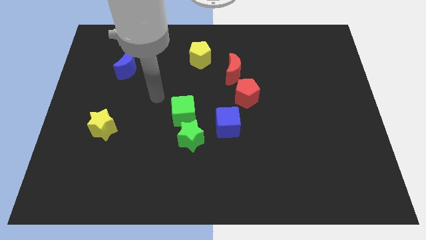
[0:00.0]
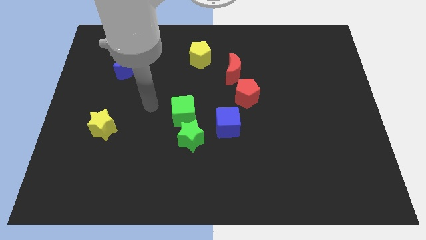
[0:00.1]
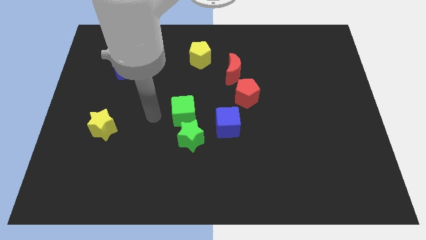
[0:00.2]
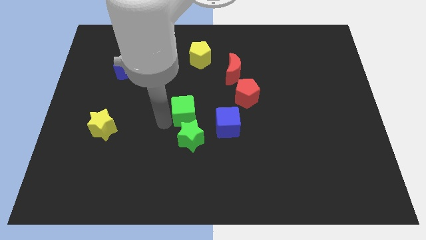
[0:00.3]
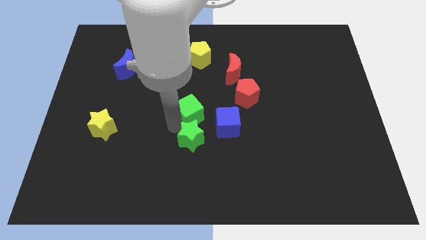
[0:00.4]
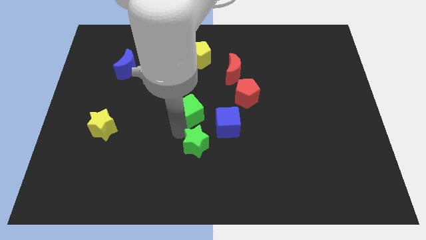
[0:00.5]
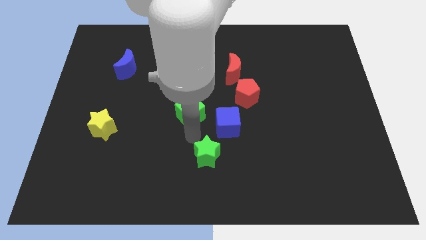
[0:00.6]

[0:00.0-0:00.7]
pull the green cube apart from the green star

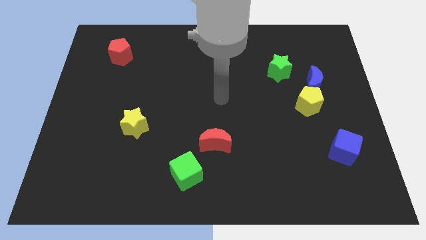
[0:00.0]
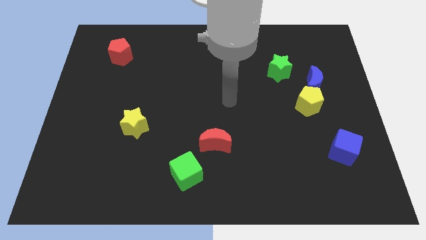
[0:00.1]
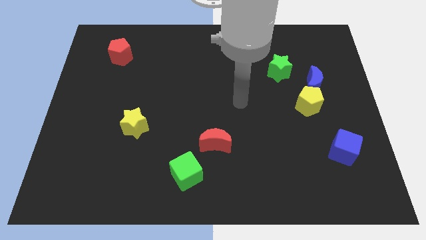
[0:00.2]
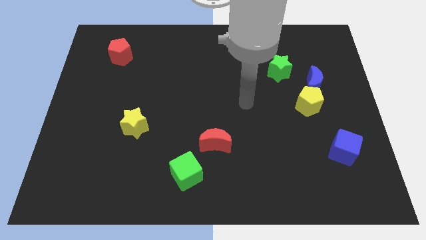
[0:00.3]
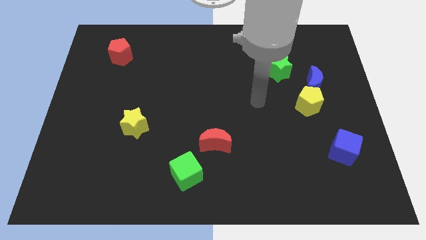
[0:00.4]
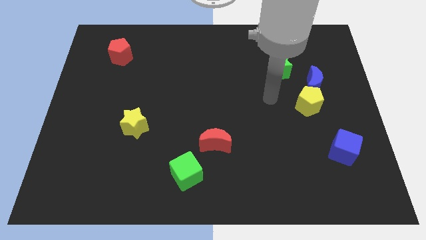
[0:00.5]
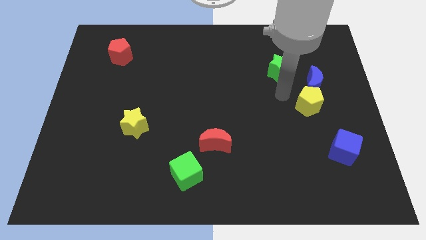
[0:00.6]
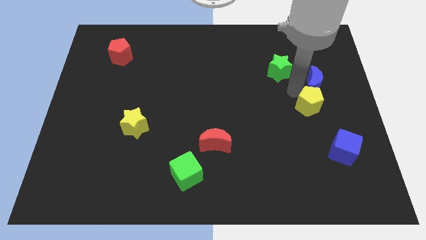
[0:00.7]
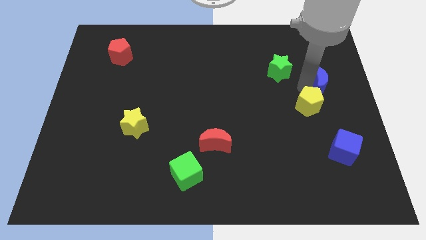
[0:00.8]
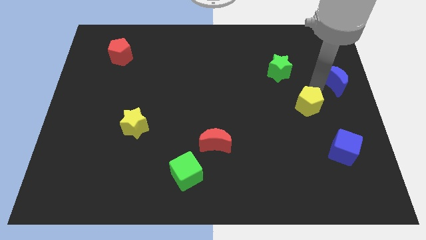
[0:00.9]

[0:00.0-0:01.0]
pull the yellow pentagon apart from the blue moon

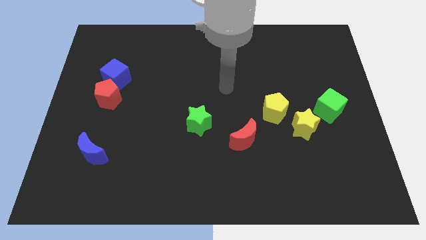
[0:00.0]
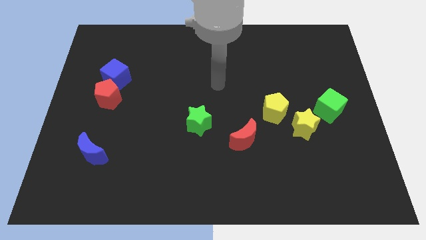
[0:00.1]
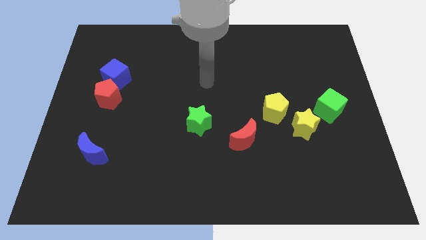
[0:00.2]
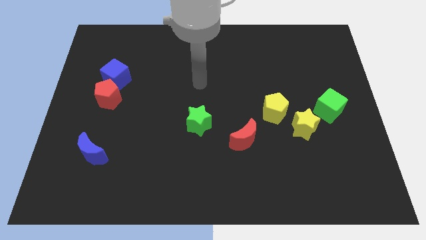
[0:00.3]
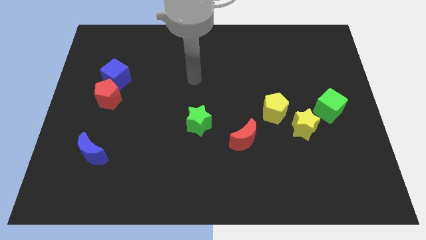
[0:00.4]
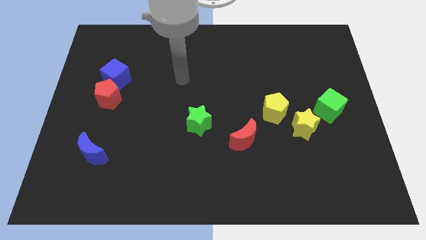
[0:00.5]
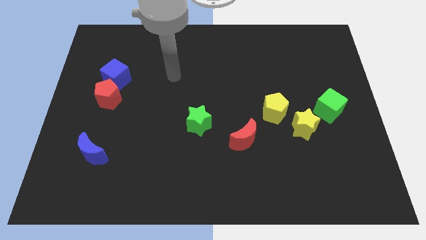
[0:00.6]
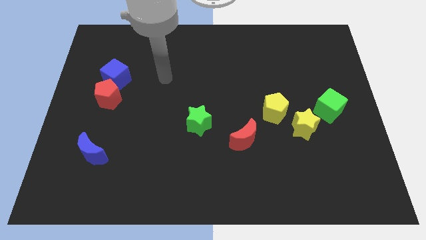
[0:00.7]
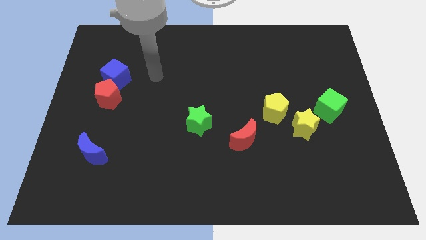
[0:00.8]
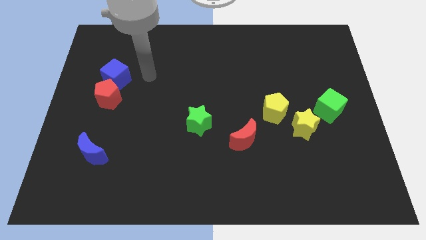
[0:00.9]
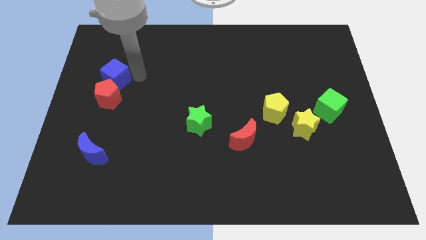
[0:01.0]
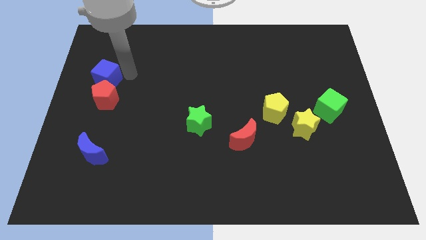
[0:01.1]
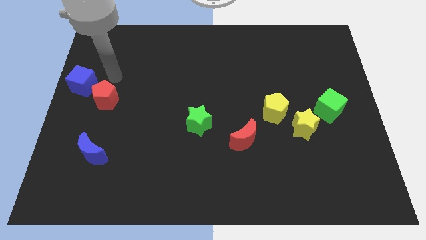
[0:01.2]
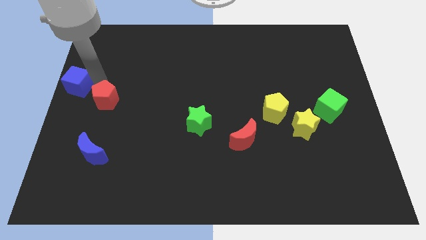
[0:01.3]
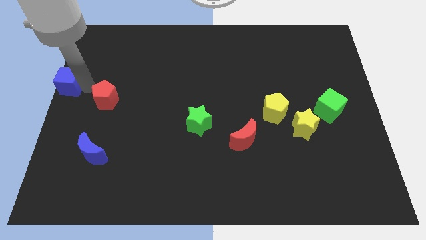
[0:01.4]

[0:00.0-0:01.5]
pull the red pentagon apart from the blue cube

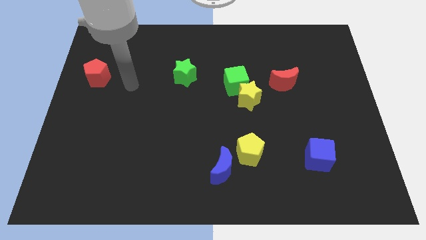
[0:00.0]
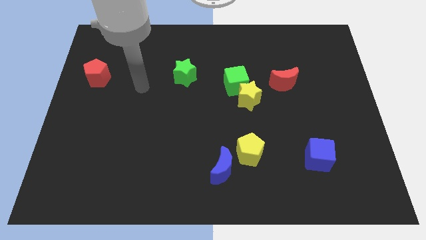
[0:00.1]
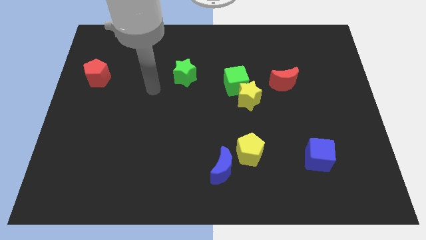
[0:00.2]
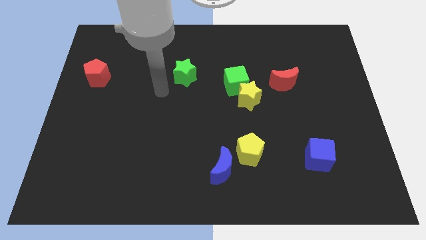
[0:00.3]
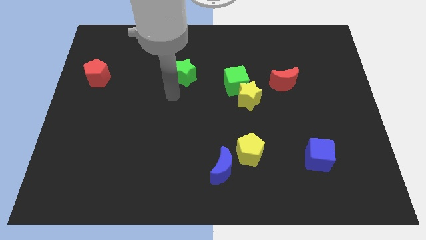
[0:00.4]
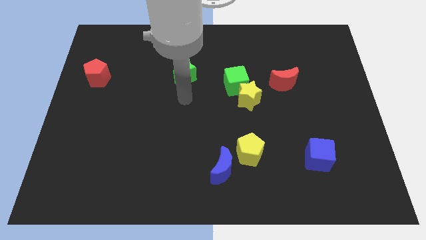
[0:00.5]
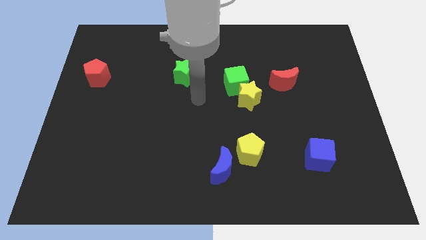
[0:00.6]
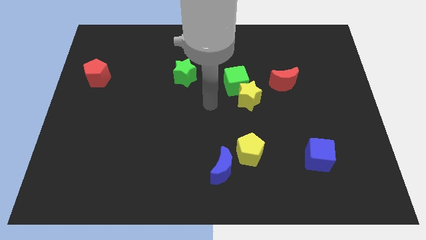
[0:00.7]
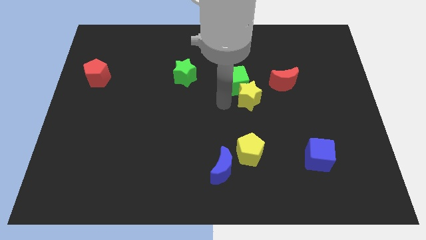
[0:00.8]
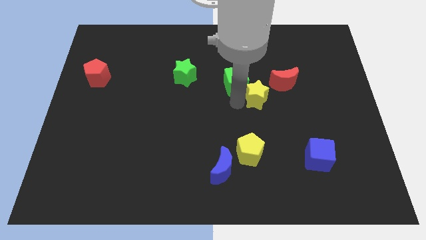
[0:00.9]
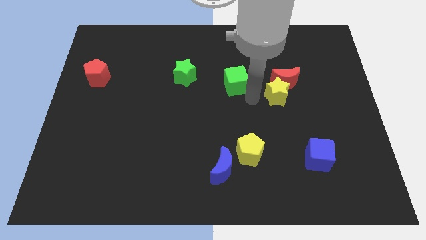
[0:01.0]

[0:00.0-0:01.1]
separate the green cube from the yellow star

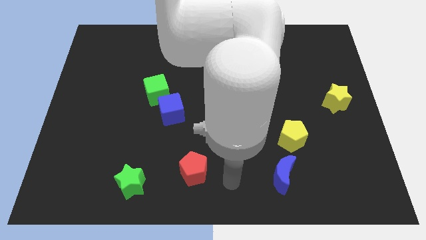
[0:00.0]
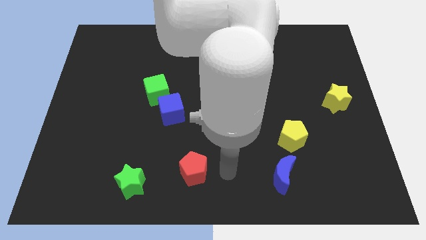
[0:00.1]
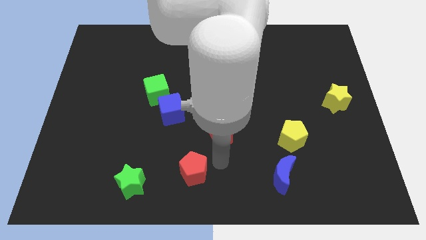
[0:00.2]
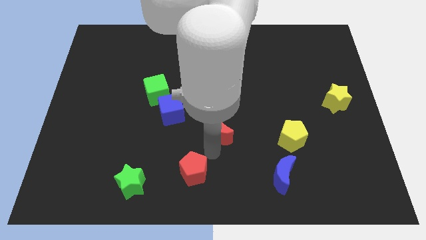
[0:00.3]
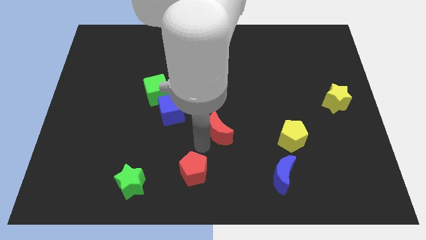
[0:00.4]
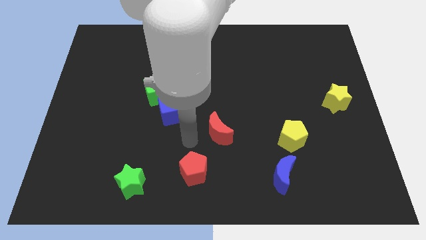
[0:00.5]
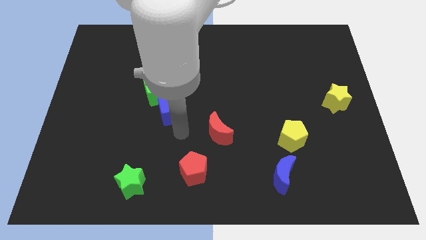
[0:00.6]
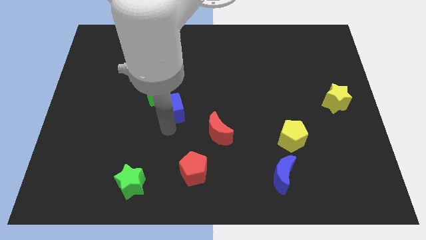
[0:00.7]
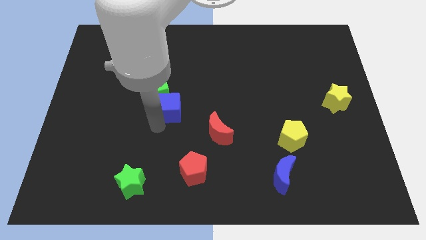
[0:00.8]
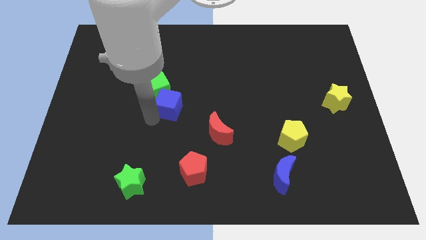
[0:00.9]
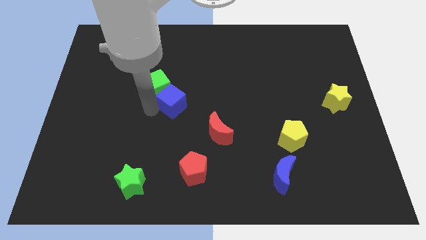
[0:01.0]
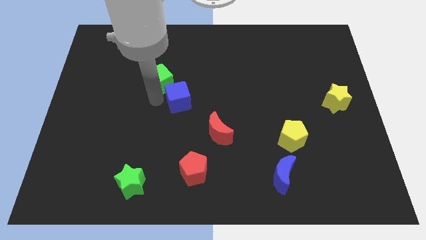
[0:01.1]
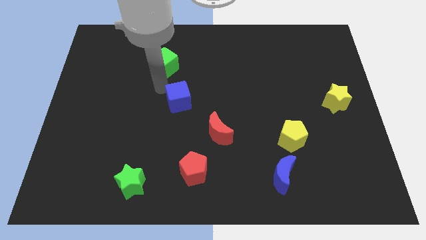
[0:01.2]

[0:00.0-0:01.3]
move the blue cube away from the green cube

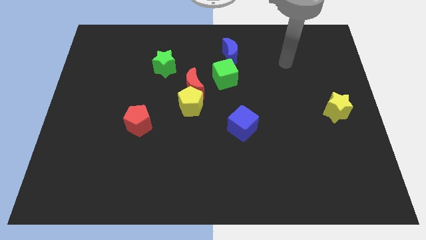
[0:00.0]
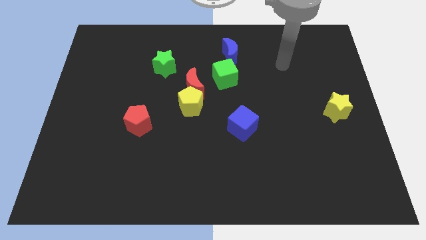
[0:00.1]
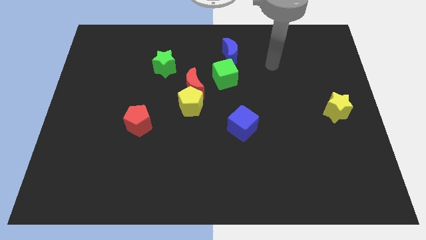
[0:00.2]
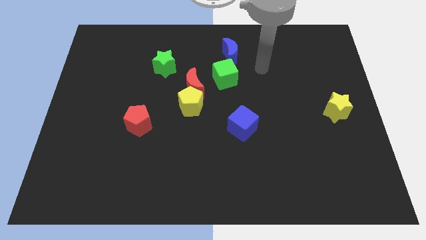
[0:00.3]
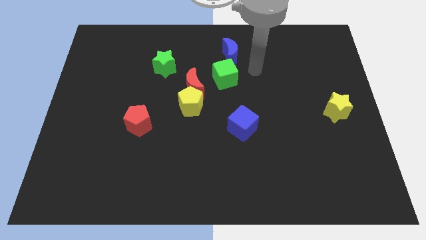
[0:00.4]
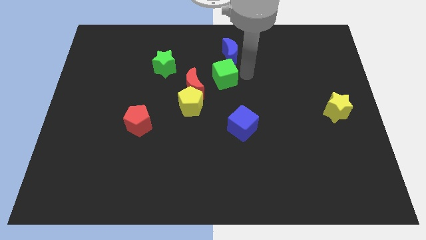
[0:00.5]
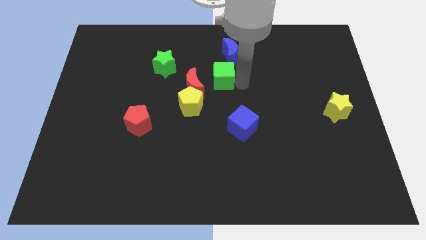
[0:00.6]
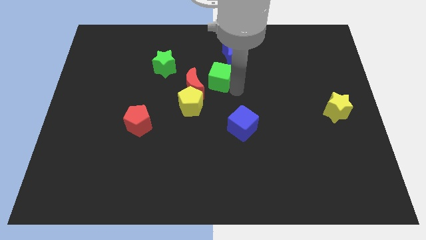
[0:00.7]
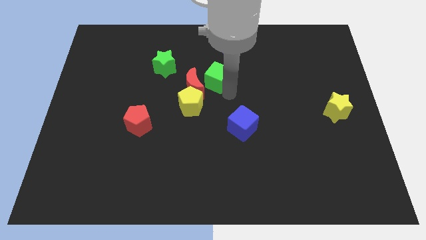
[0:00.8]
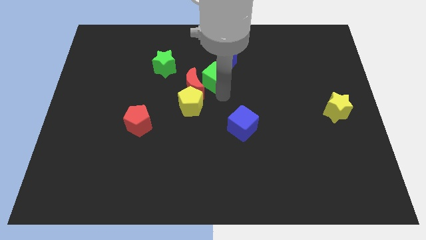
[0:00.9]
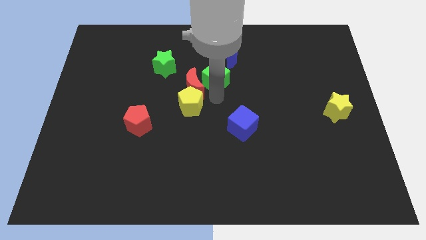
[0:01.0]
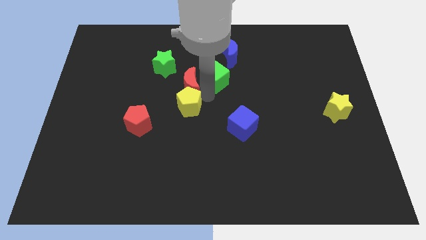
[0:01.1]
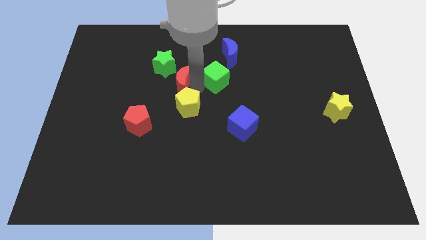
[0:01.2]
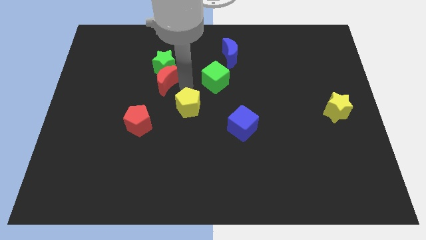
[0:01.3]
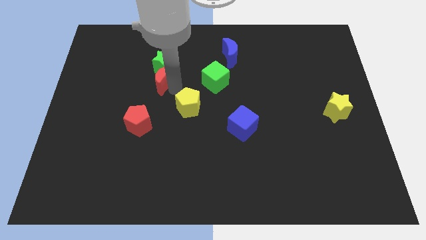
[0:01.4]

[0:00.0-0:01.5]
separate the yellow pentagon from the red moon

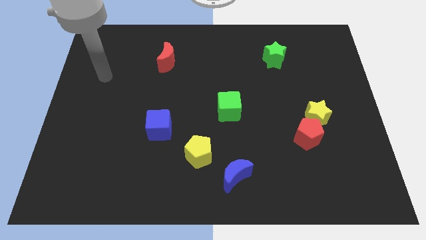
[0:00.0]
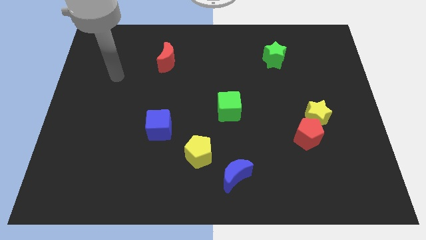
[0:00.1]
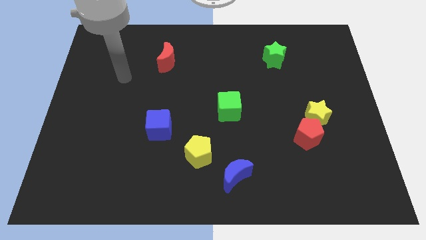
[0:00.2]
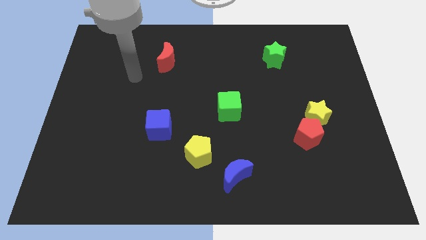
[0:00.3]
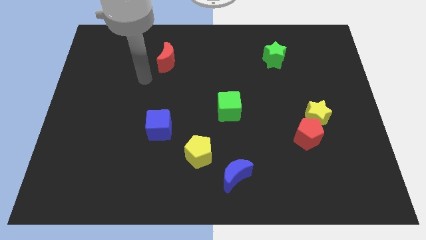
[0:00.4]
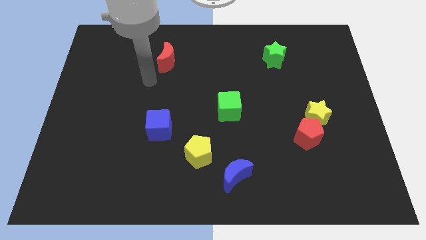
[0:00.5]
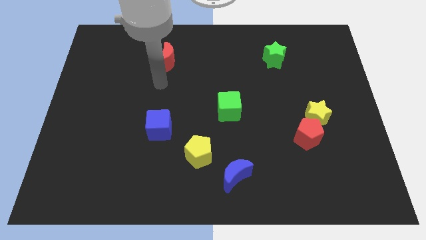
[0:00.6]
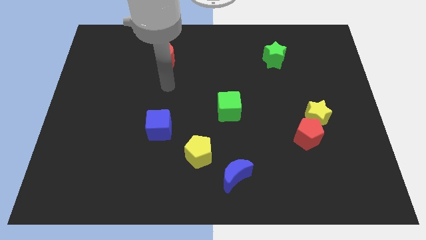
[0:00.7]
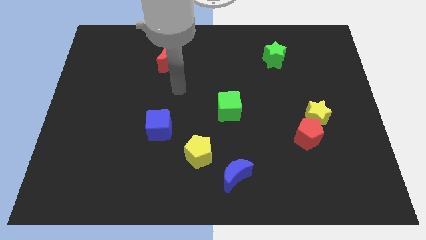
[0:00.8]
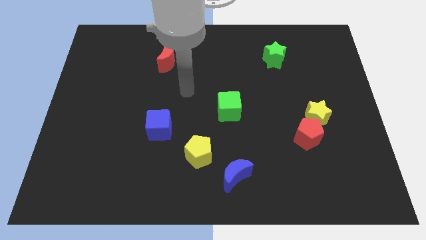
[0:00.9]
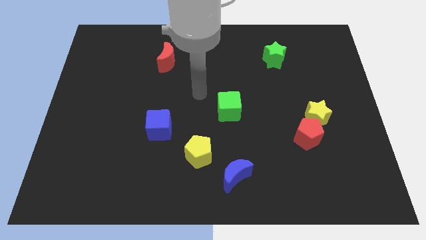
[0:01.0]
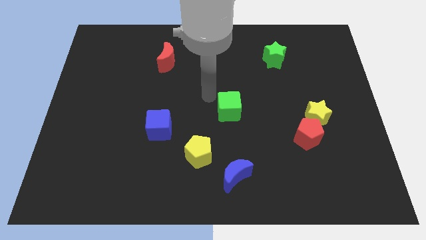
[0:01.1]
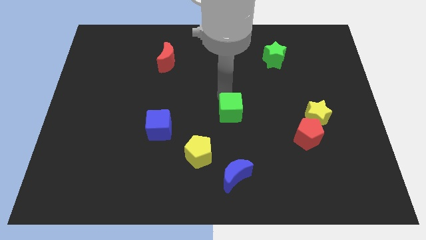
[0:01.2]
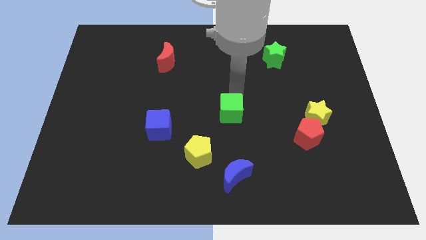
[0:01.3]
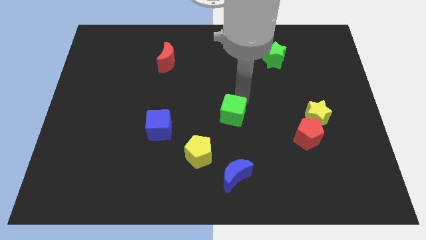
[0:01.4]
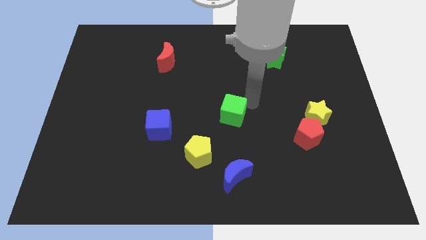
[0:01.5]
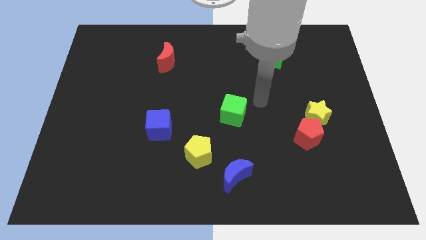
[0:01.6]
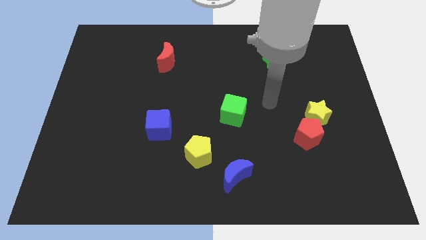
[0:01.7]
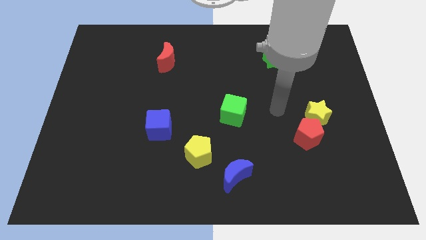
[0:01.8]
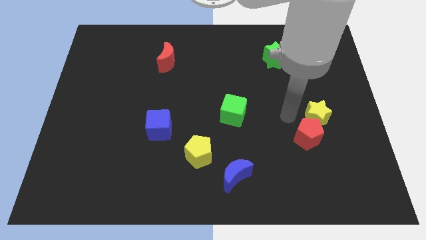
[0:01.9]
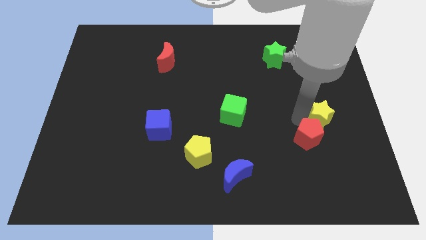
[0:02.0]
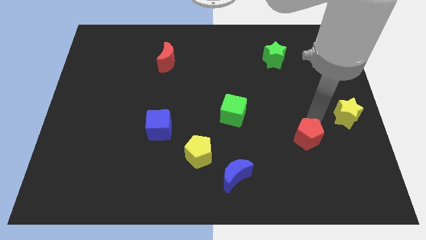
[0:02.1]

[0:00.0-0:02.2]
move the red pentagon away from the yellow star

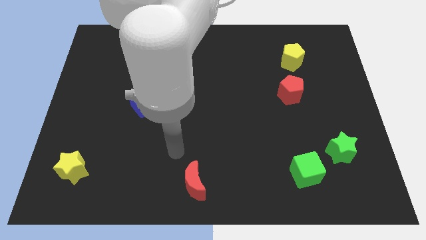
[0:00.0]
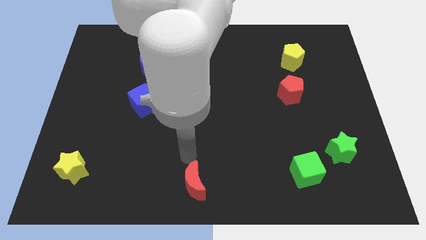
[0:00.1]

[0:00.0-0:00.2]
move the green cube away from the green star
